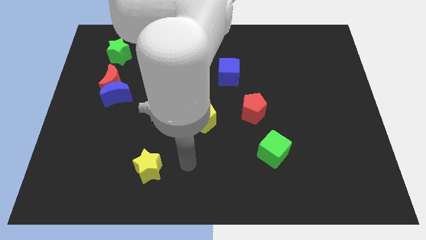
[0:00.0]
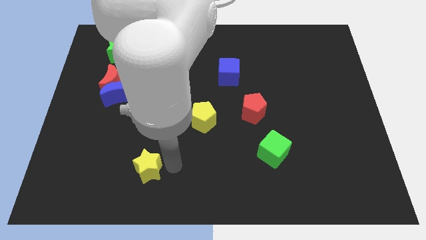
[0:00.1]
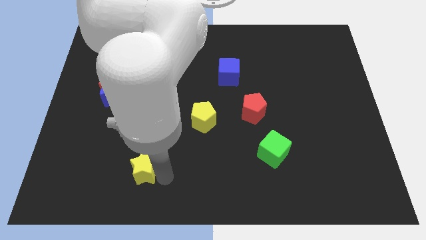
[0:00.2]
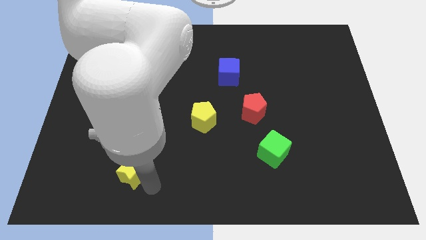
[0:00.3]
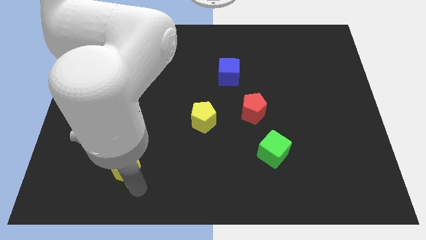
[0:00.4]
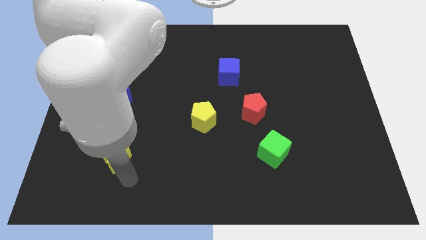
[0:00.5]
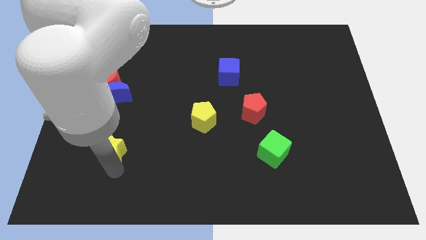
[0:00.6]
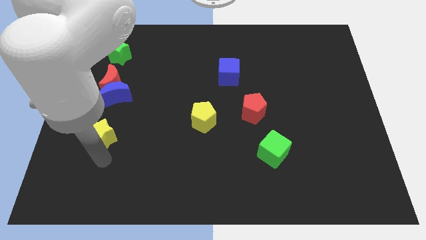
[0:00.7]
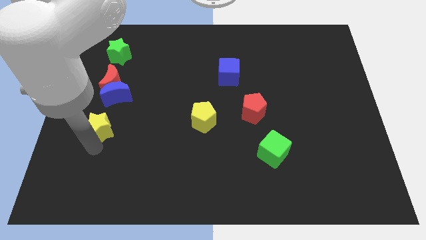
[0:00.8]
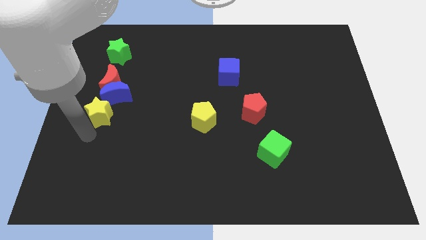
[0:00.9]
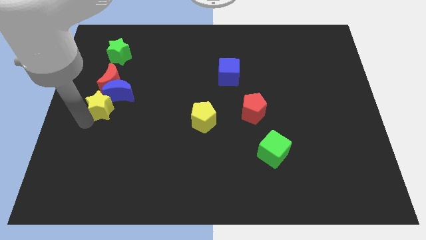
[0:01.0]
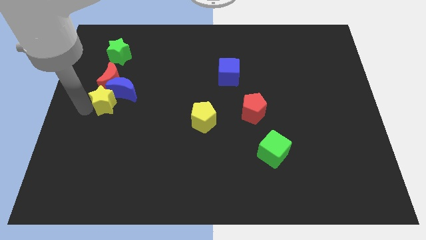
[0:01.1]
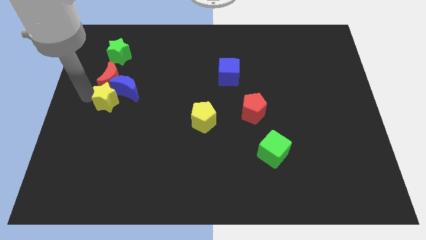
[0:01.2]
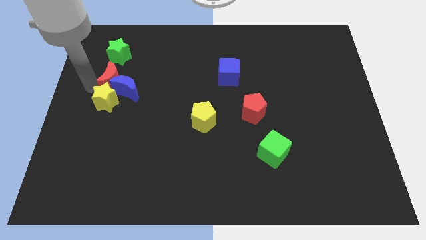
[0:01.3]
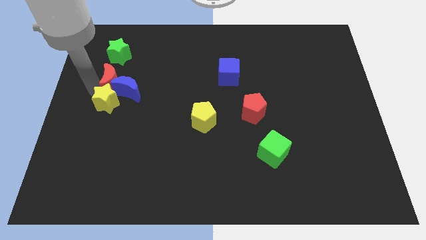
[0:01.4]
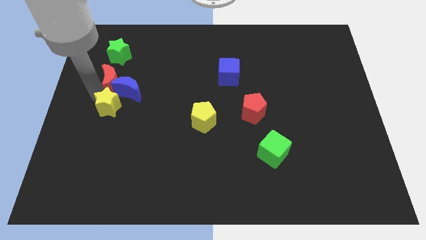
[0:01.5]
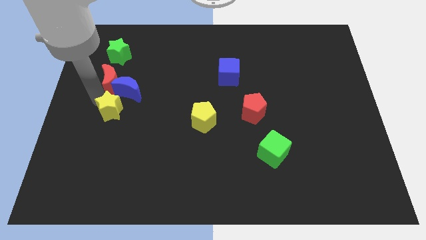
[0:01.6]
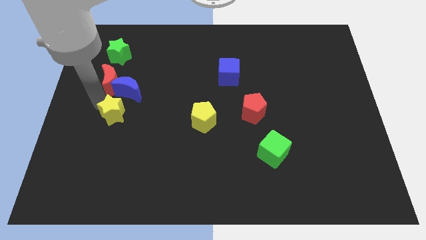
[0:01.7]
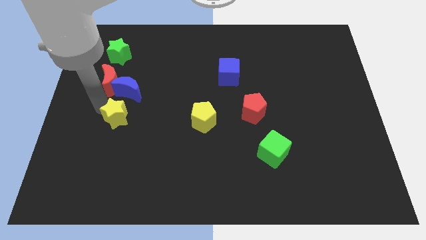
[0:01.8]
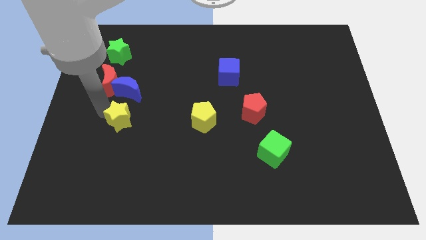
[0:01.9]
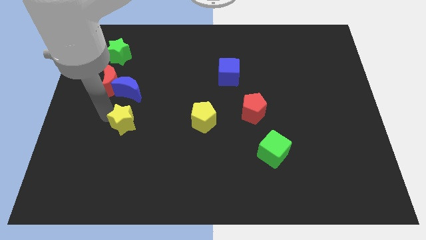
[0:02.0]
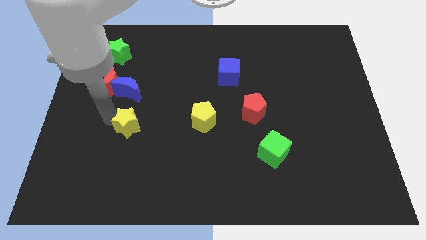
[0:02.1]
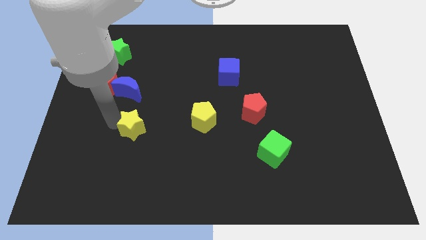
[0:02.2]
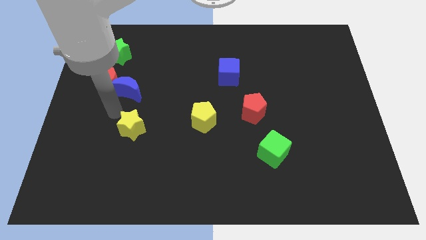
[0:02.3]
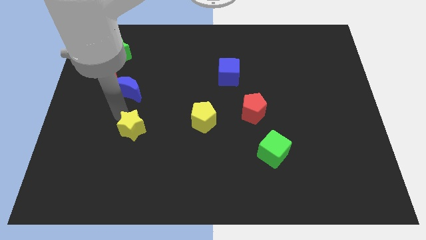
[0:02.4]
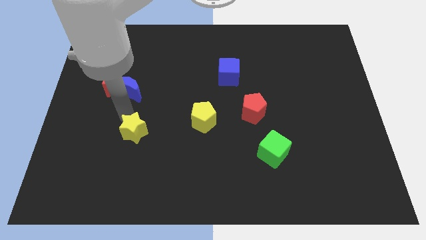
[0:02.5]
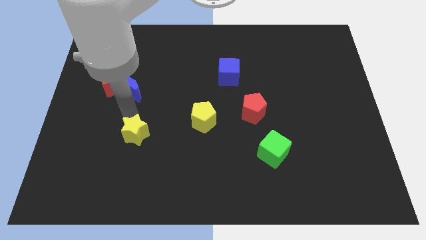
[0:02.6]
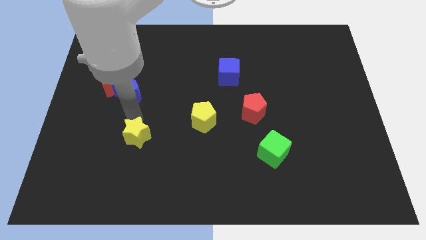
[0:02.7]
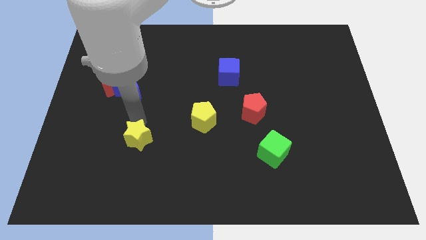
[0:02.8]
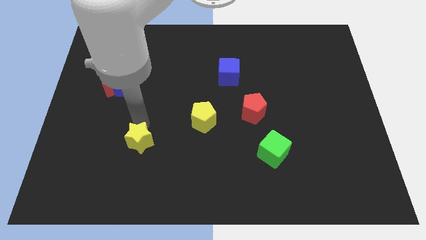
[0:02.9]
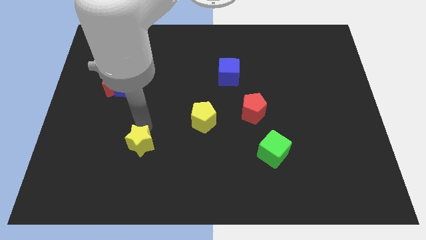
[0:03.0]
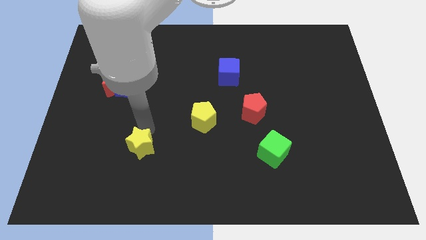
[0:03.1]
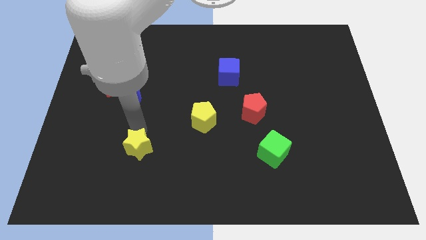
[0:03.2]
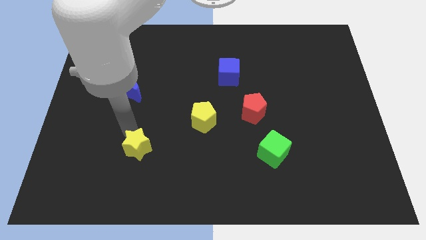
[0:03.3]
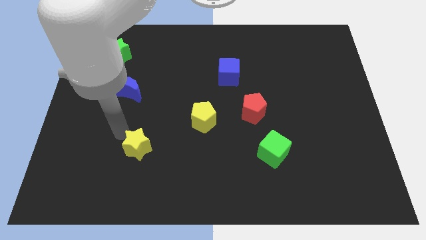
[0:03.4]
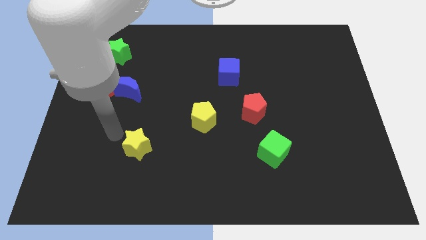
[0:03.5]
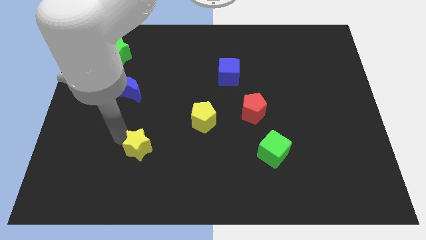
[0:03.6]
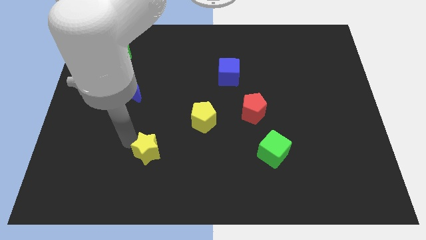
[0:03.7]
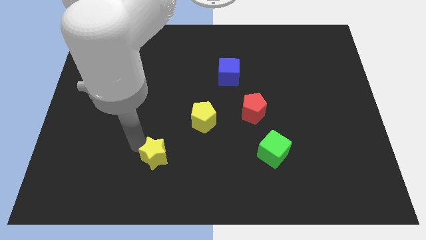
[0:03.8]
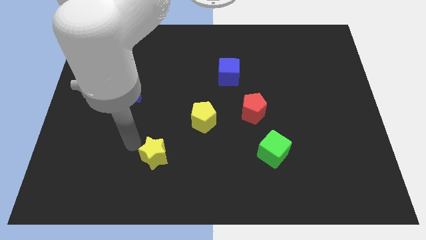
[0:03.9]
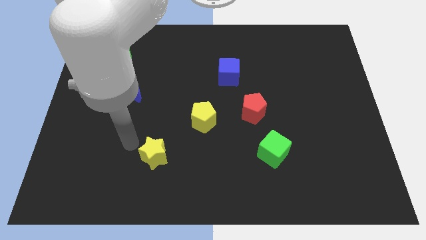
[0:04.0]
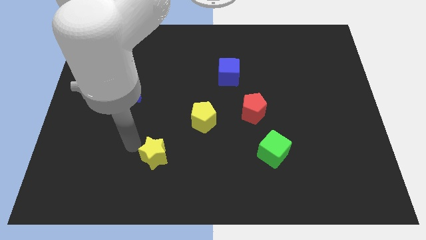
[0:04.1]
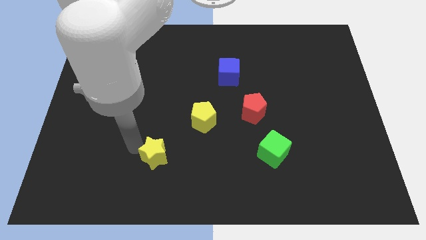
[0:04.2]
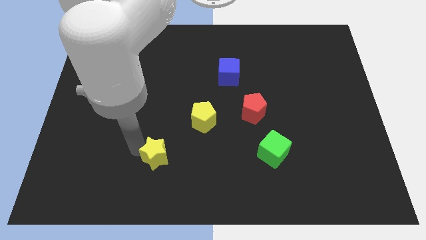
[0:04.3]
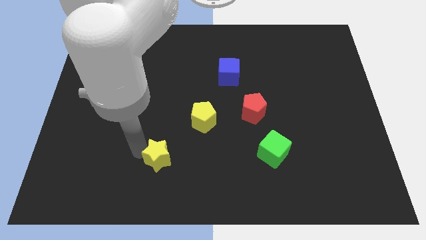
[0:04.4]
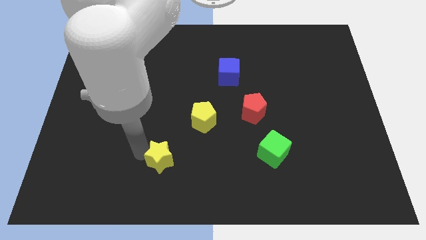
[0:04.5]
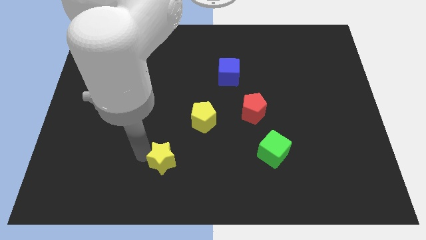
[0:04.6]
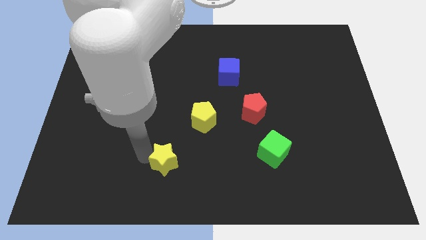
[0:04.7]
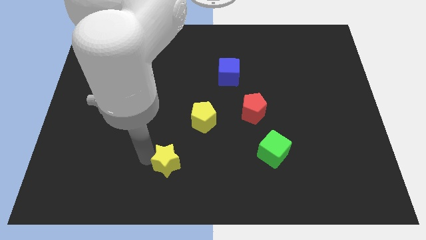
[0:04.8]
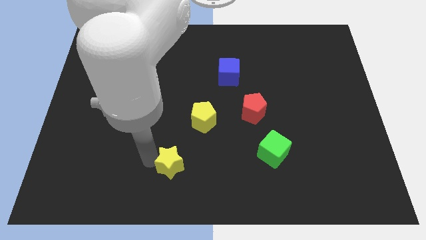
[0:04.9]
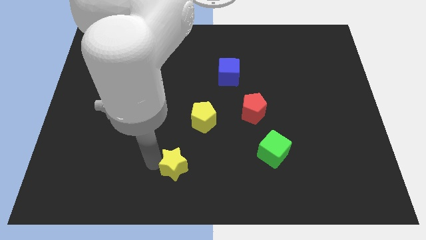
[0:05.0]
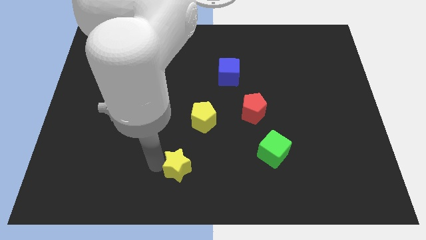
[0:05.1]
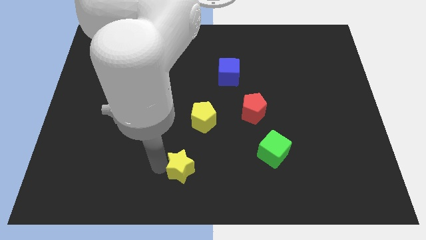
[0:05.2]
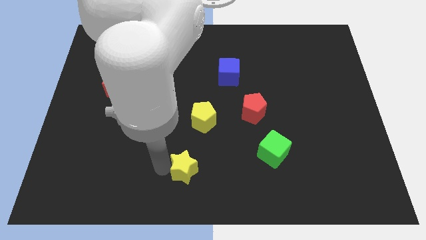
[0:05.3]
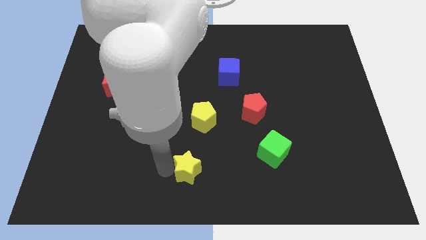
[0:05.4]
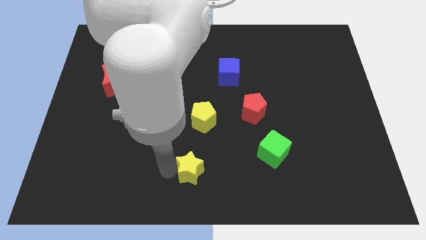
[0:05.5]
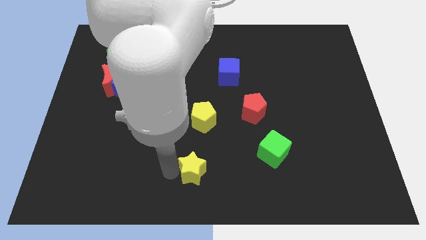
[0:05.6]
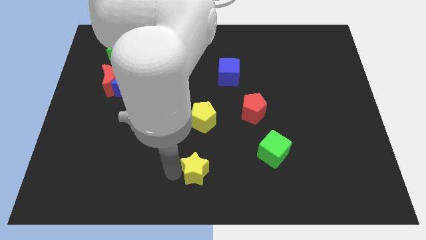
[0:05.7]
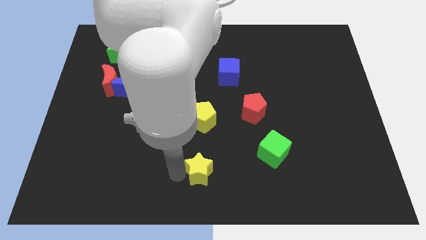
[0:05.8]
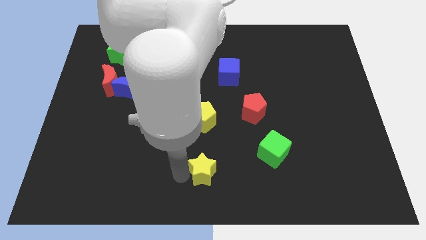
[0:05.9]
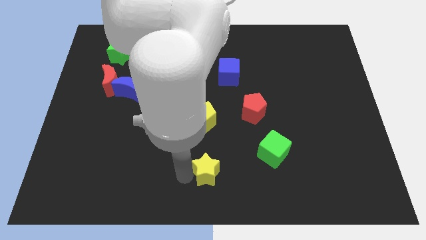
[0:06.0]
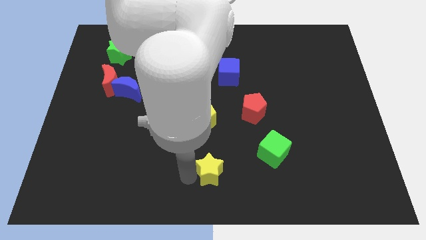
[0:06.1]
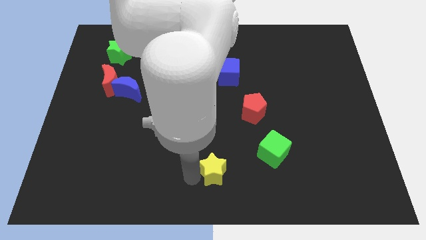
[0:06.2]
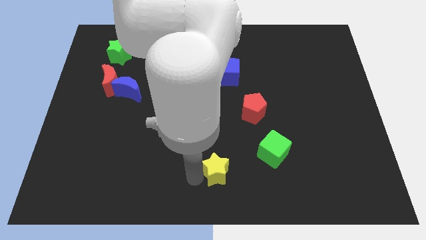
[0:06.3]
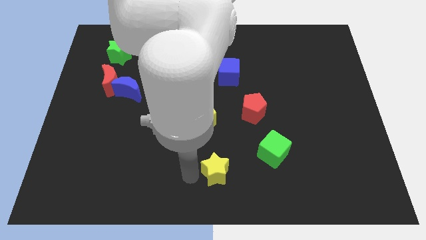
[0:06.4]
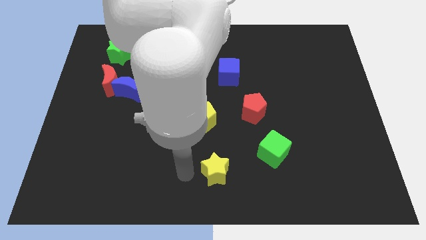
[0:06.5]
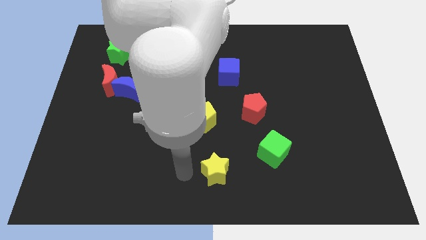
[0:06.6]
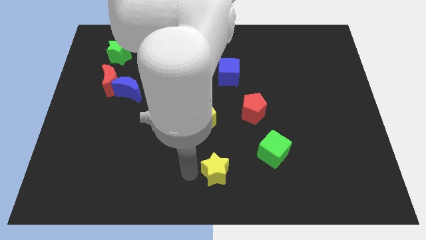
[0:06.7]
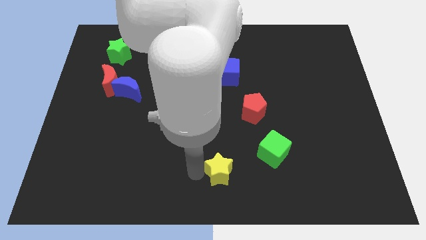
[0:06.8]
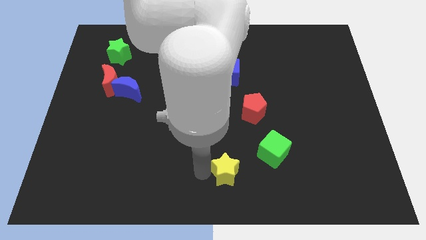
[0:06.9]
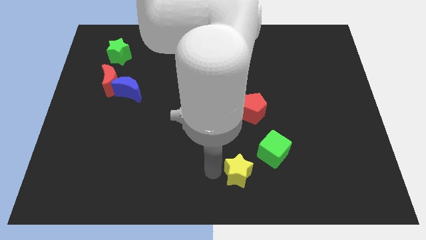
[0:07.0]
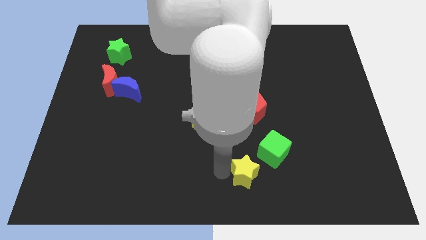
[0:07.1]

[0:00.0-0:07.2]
slide the yellow star to the right

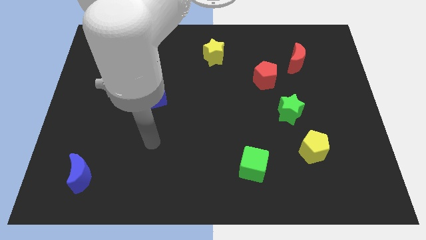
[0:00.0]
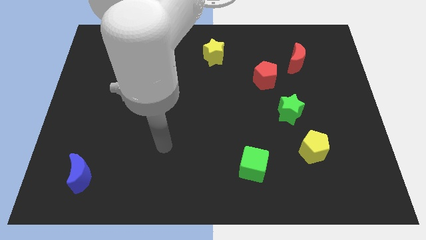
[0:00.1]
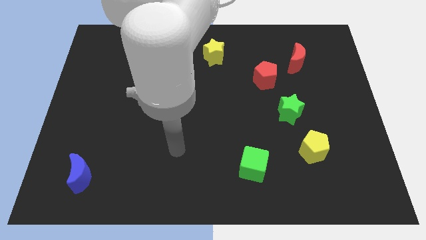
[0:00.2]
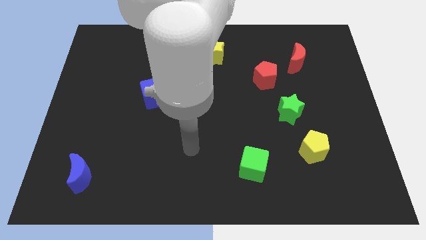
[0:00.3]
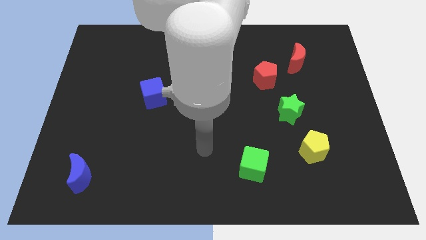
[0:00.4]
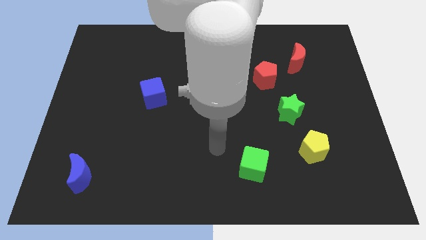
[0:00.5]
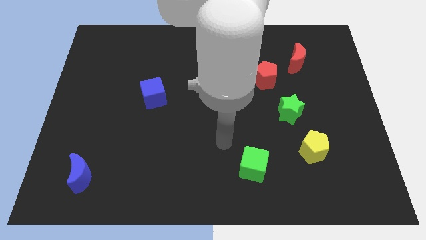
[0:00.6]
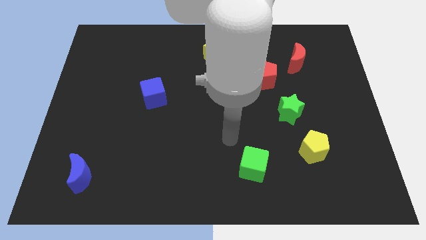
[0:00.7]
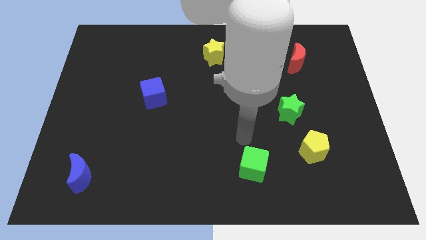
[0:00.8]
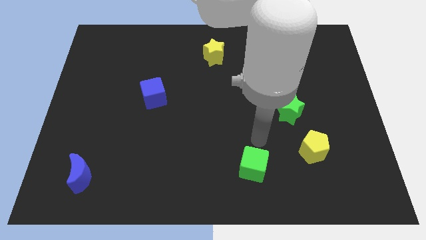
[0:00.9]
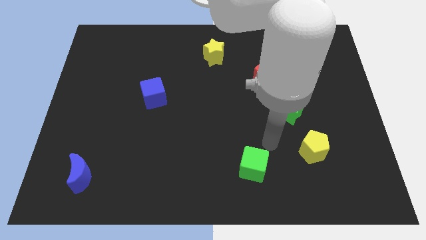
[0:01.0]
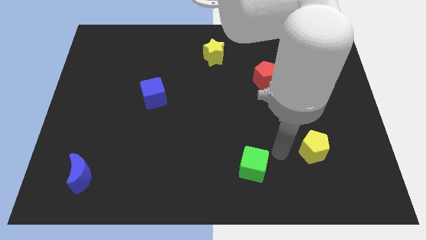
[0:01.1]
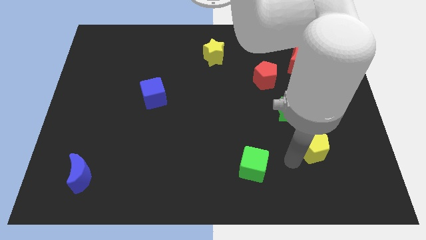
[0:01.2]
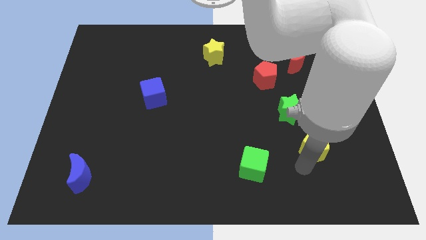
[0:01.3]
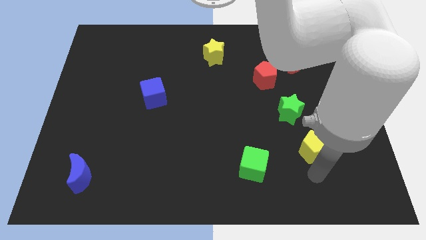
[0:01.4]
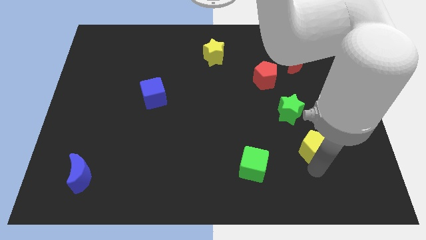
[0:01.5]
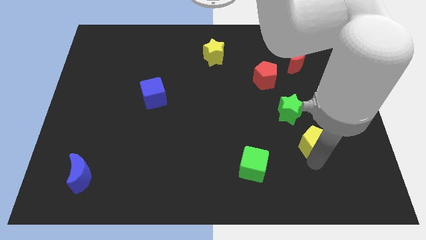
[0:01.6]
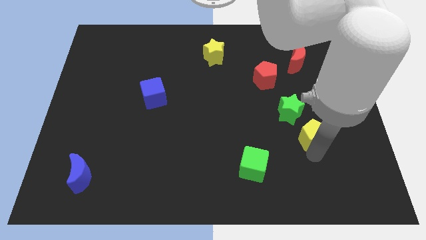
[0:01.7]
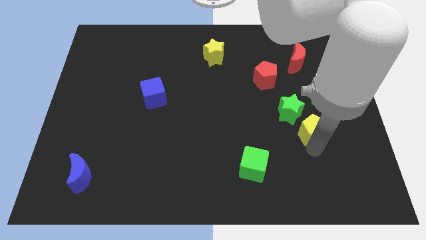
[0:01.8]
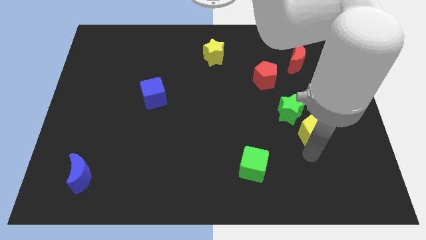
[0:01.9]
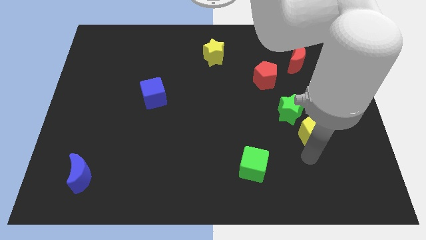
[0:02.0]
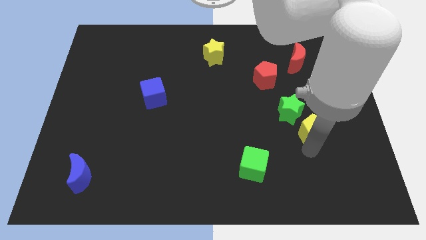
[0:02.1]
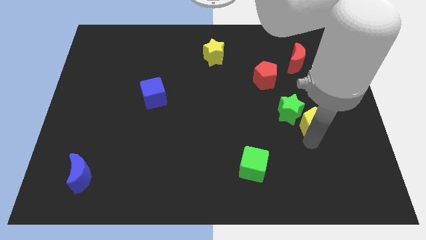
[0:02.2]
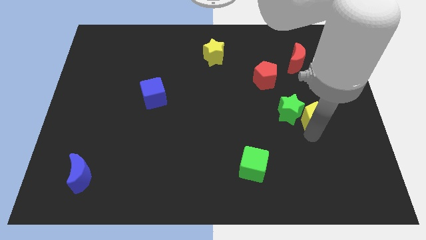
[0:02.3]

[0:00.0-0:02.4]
move the yellow pentagon a bit upwards
